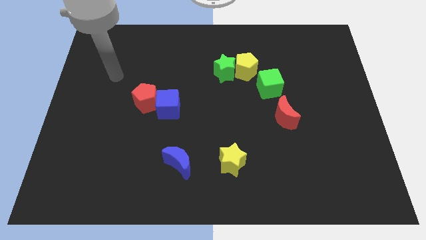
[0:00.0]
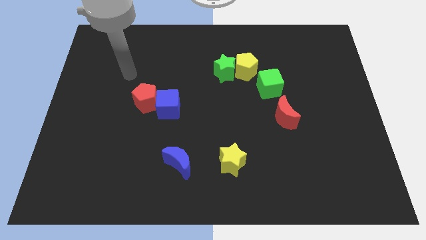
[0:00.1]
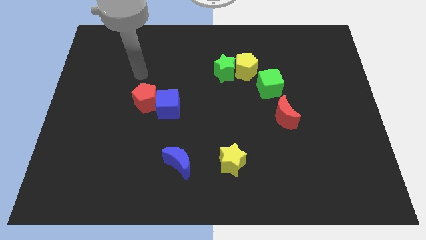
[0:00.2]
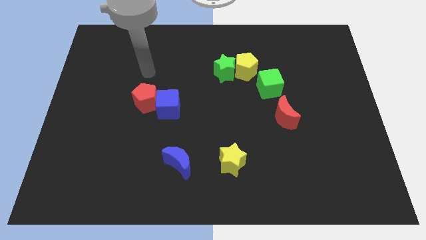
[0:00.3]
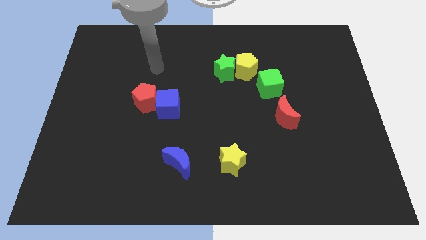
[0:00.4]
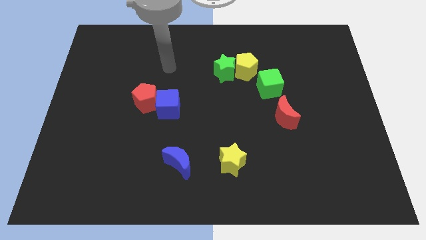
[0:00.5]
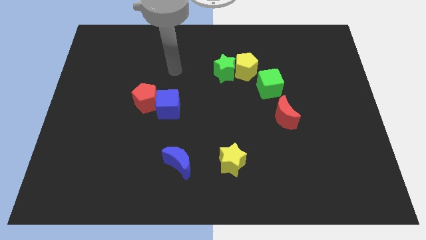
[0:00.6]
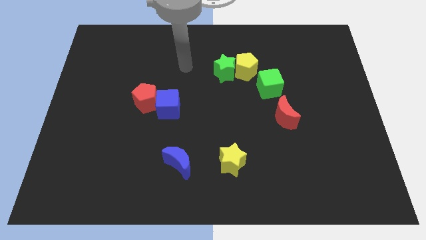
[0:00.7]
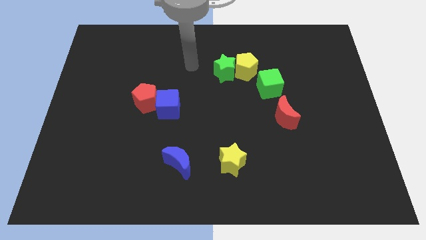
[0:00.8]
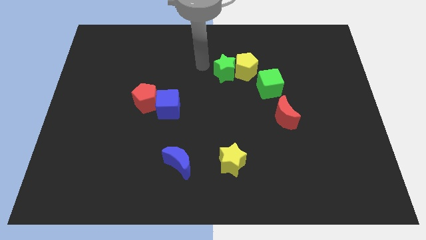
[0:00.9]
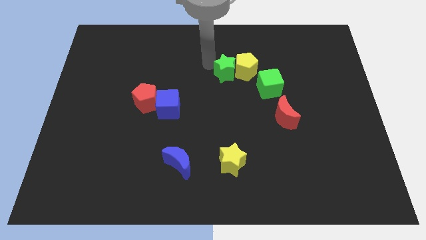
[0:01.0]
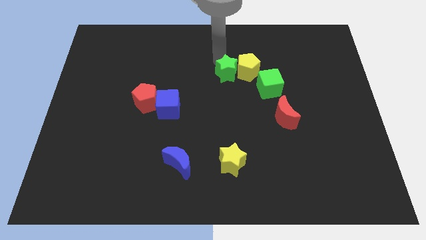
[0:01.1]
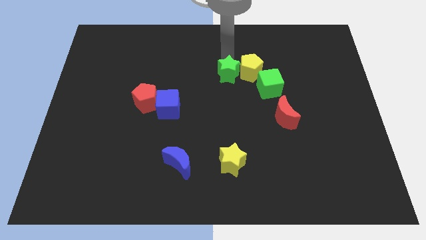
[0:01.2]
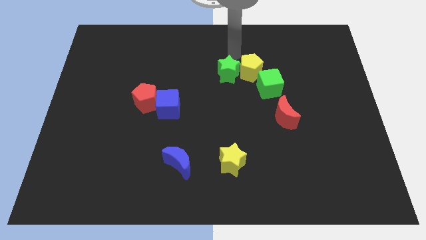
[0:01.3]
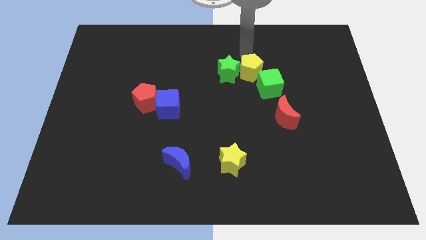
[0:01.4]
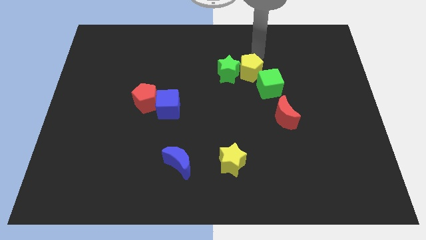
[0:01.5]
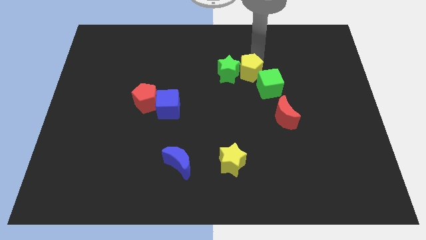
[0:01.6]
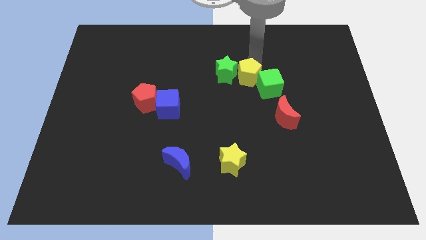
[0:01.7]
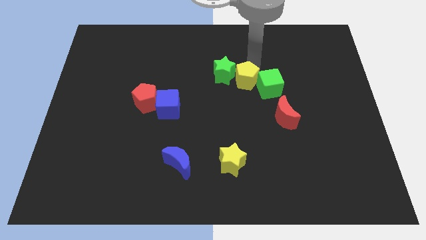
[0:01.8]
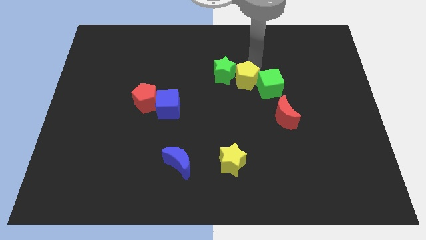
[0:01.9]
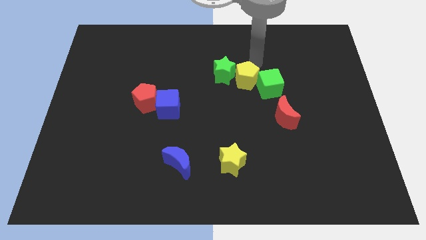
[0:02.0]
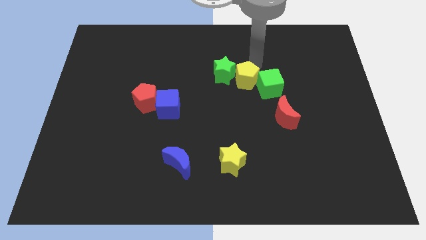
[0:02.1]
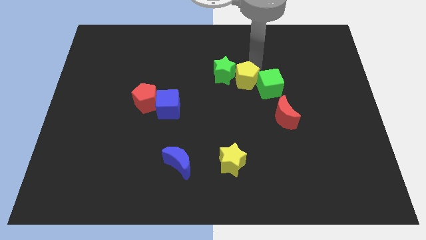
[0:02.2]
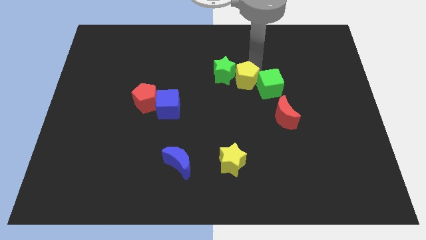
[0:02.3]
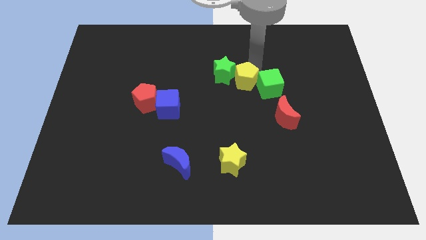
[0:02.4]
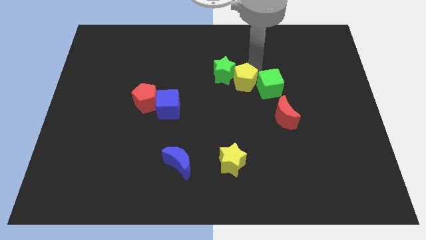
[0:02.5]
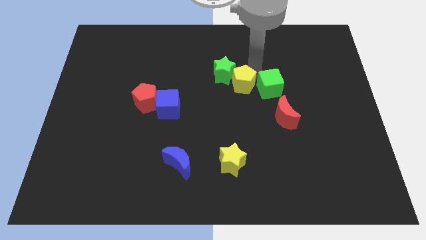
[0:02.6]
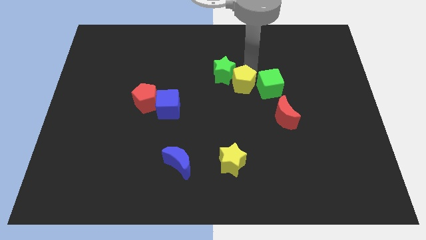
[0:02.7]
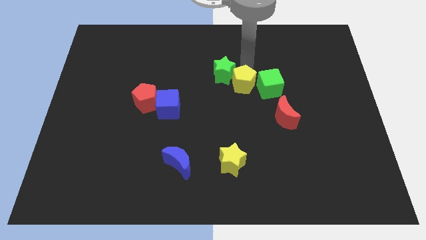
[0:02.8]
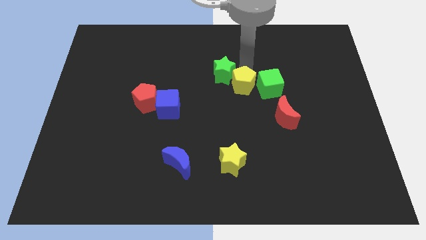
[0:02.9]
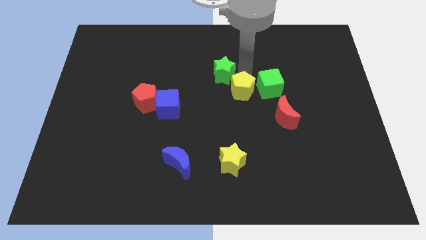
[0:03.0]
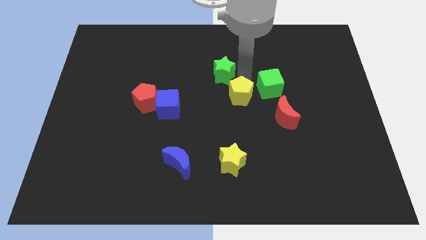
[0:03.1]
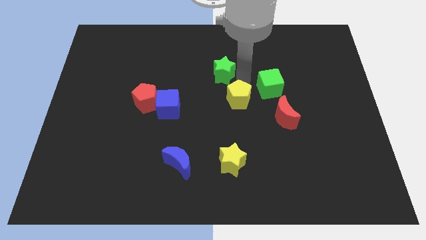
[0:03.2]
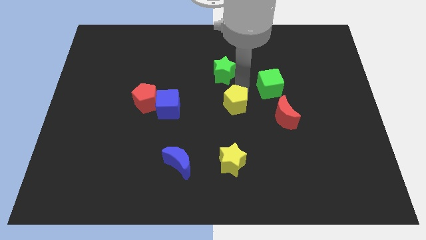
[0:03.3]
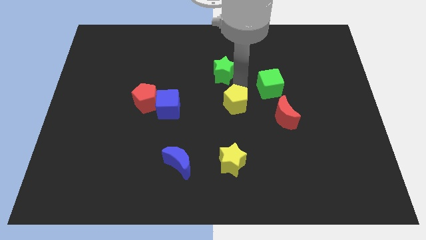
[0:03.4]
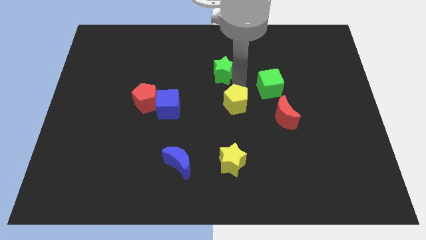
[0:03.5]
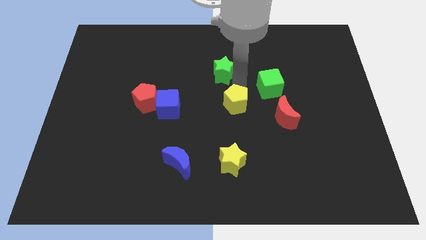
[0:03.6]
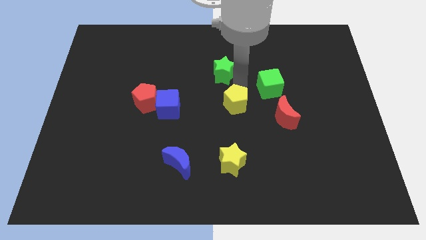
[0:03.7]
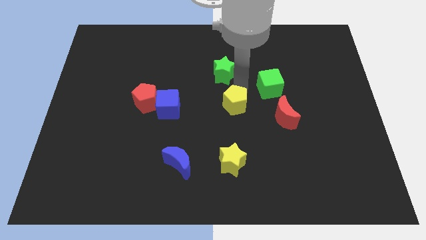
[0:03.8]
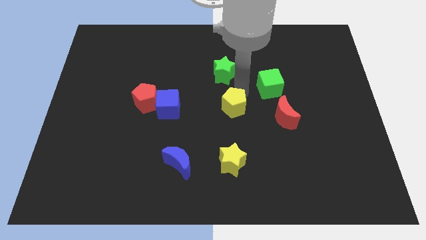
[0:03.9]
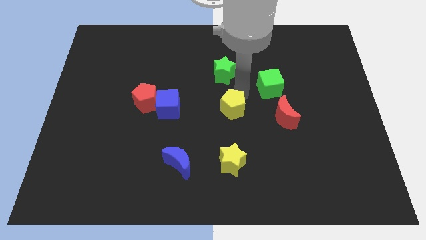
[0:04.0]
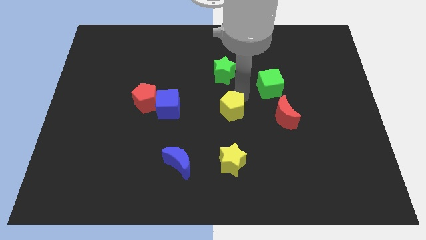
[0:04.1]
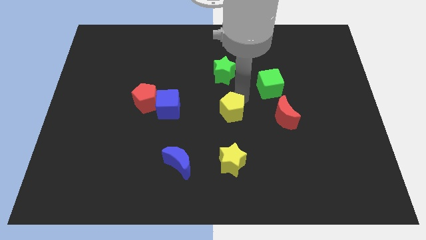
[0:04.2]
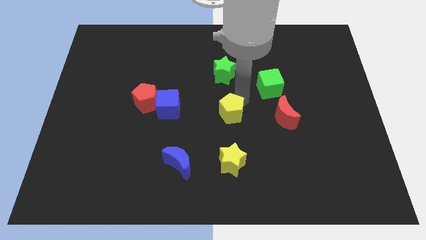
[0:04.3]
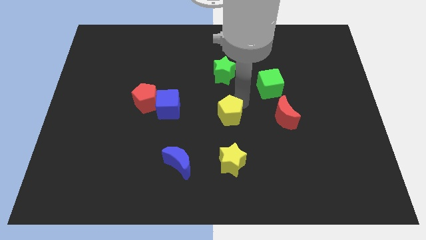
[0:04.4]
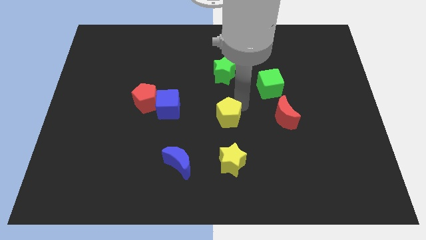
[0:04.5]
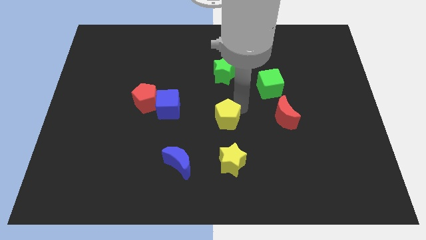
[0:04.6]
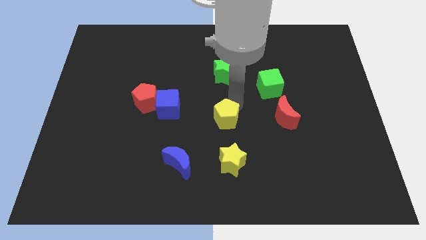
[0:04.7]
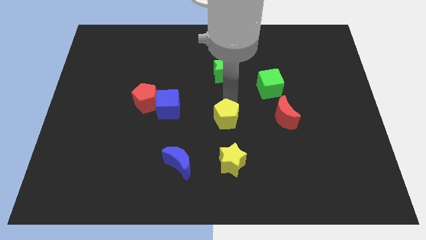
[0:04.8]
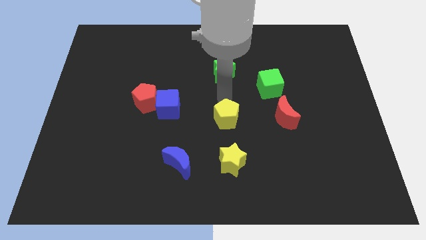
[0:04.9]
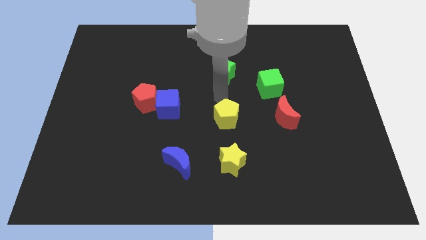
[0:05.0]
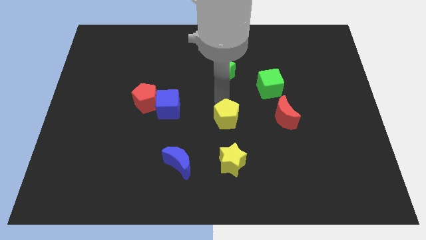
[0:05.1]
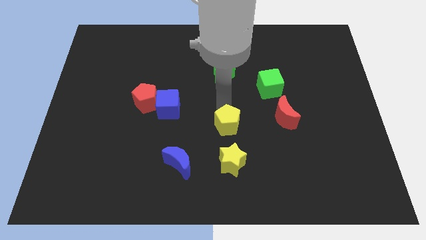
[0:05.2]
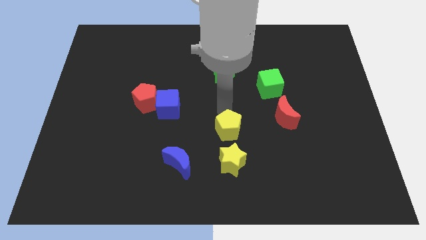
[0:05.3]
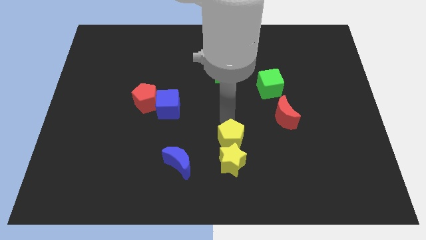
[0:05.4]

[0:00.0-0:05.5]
move the yellow pentagon to the yellow star
